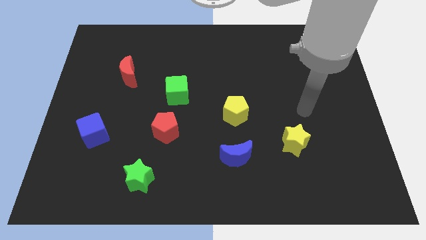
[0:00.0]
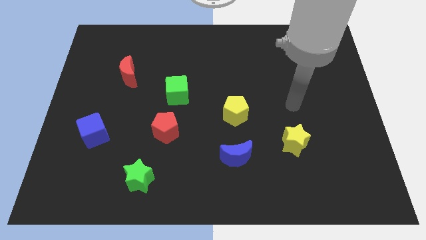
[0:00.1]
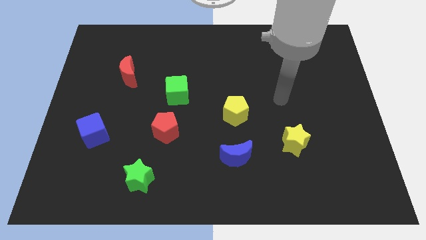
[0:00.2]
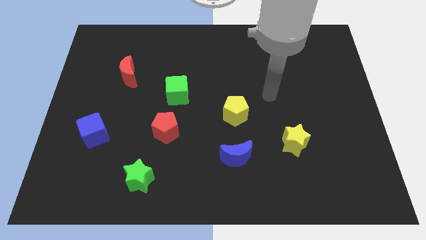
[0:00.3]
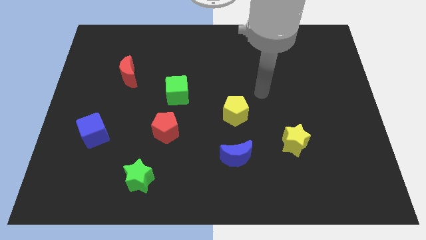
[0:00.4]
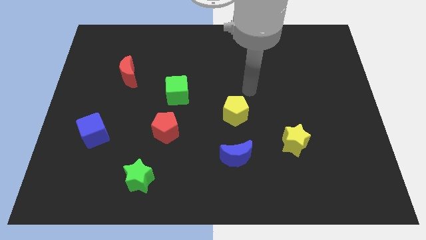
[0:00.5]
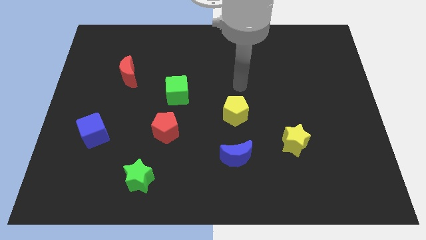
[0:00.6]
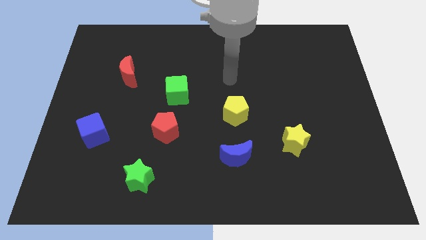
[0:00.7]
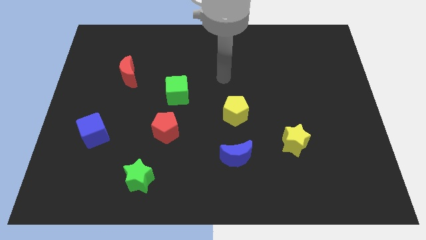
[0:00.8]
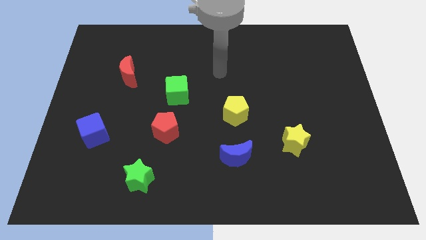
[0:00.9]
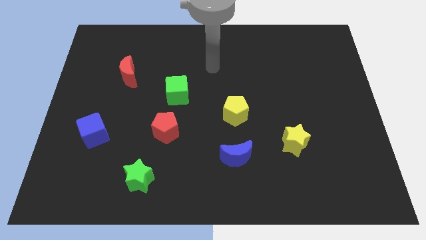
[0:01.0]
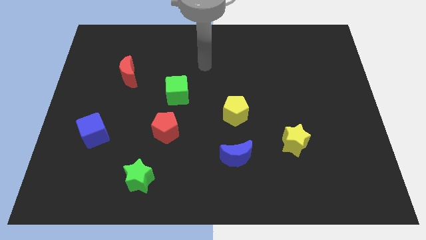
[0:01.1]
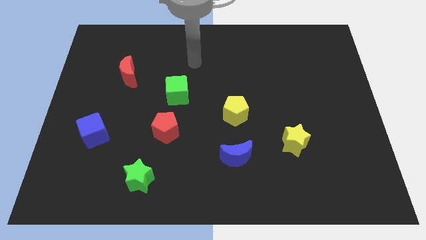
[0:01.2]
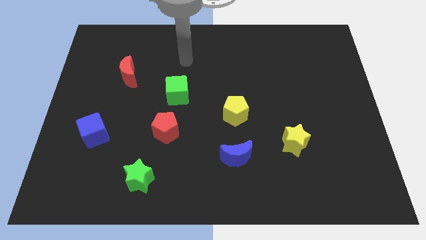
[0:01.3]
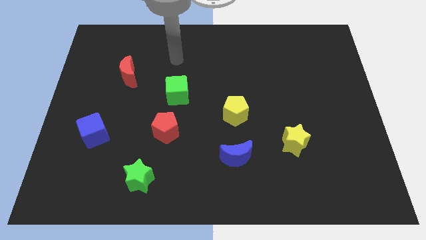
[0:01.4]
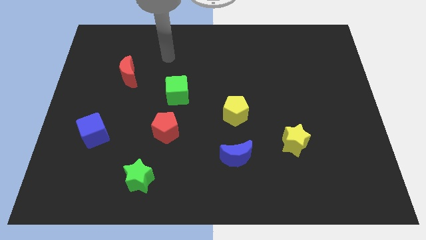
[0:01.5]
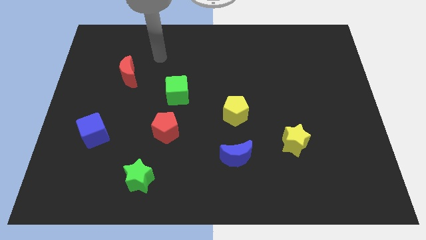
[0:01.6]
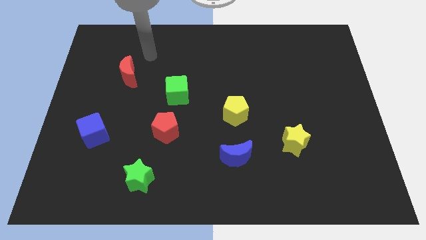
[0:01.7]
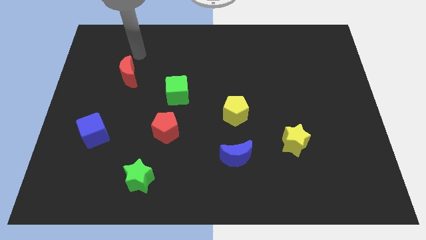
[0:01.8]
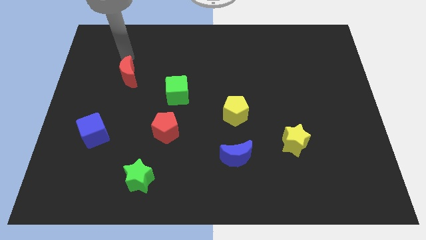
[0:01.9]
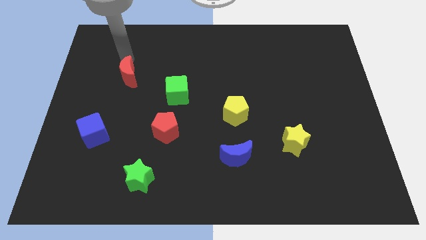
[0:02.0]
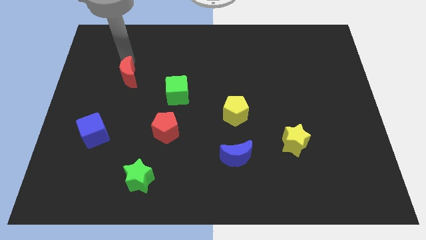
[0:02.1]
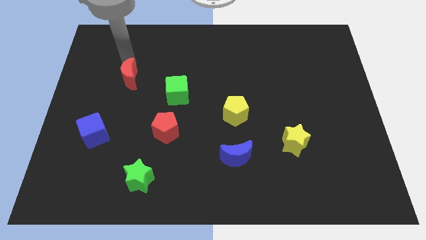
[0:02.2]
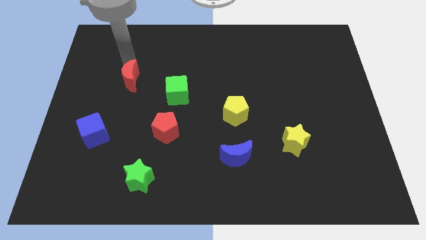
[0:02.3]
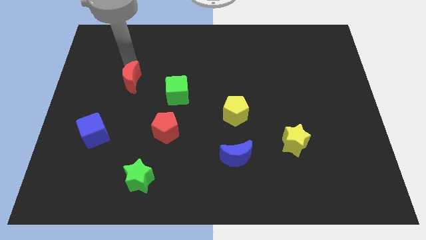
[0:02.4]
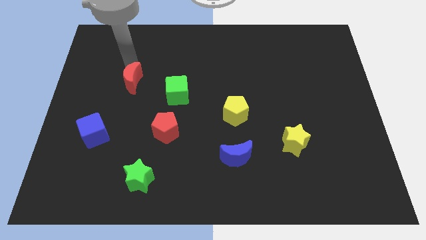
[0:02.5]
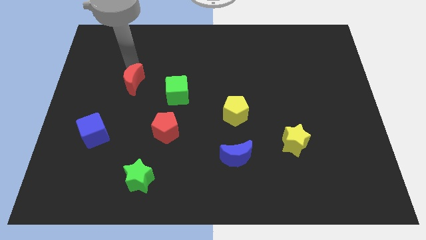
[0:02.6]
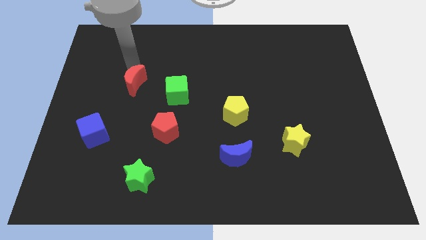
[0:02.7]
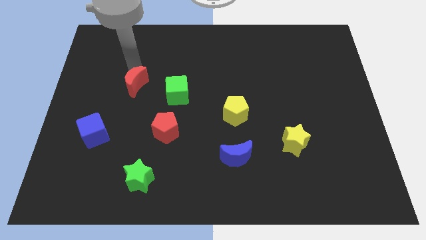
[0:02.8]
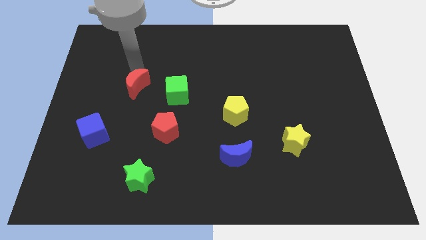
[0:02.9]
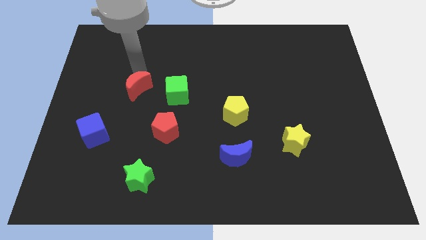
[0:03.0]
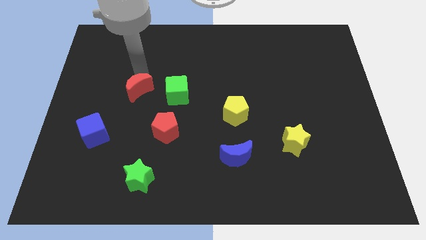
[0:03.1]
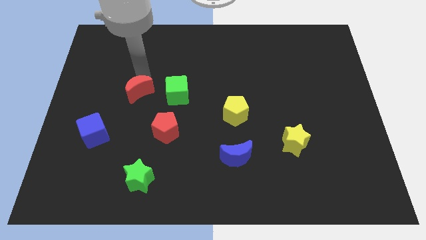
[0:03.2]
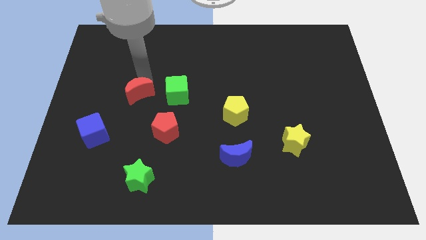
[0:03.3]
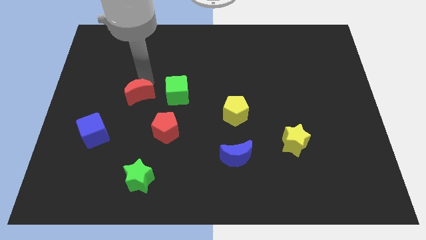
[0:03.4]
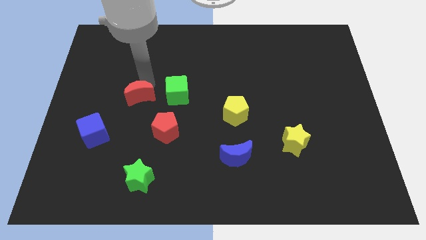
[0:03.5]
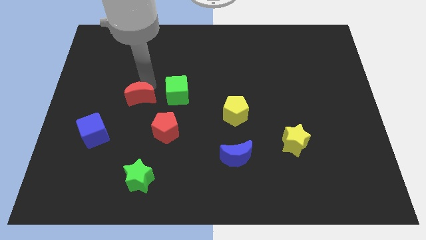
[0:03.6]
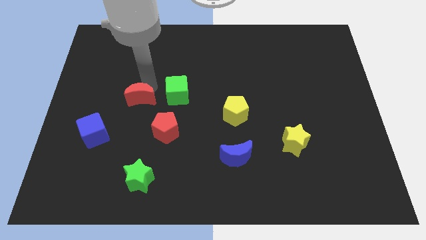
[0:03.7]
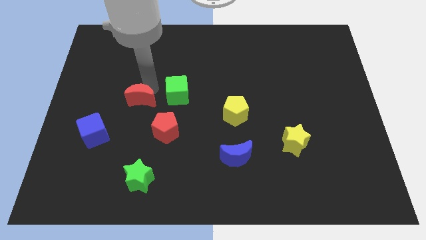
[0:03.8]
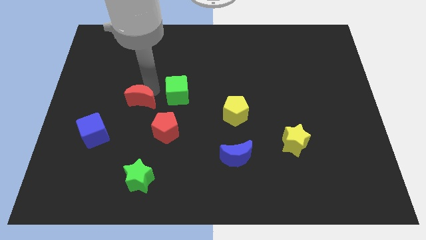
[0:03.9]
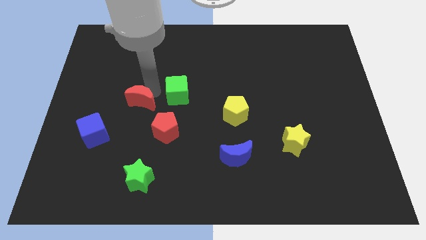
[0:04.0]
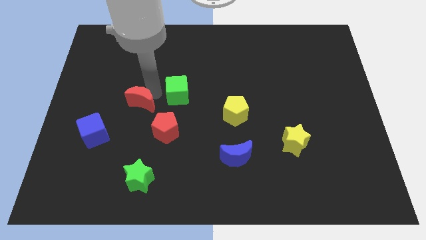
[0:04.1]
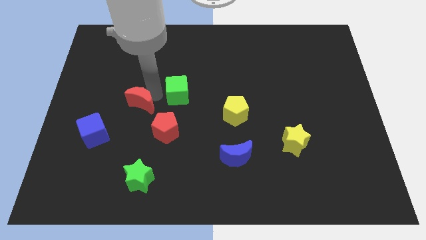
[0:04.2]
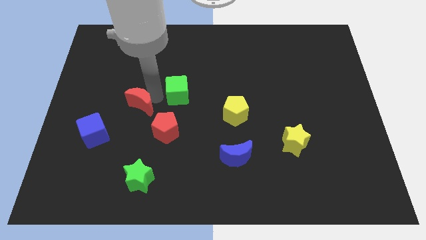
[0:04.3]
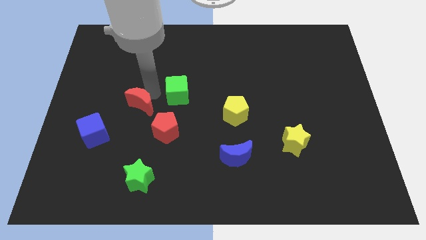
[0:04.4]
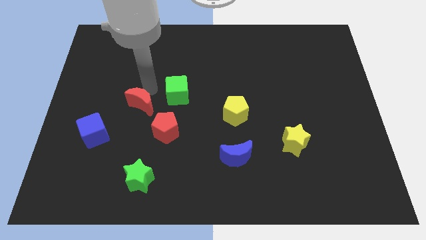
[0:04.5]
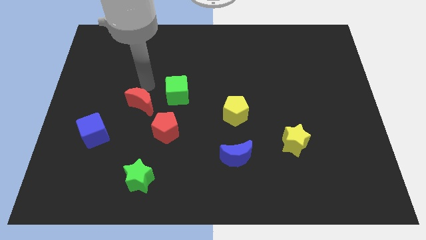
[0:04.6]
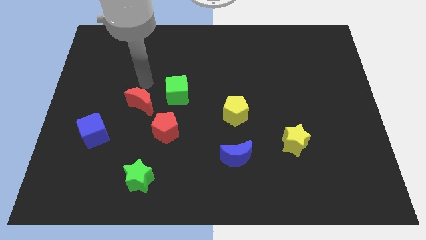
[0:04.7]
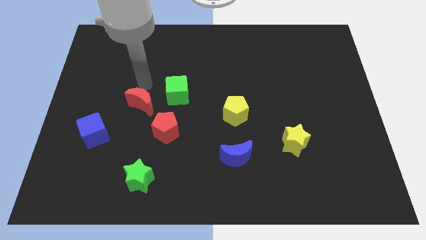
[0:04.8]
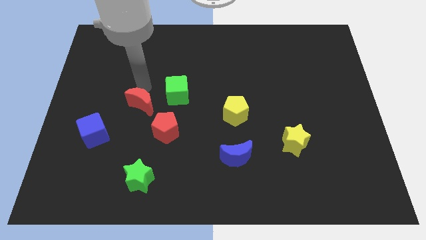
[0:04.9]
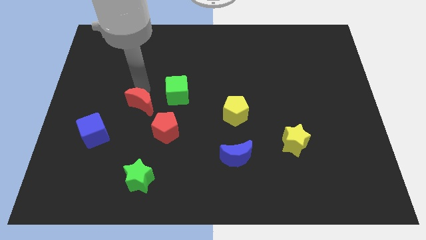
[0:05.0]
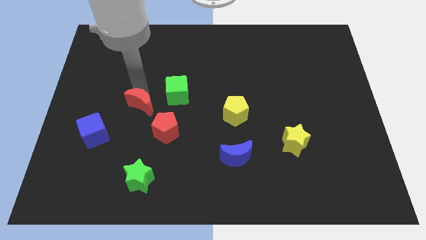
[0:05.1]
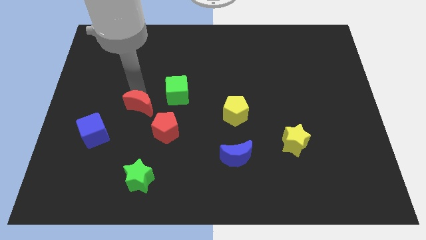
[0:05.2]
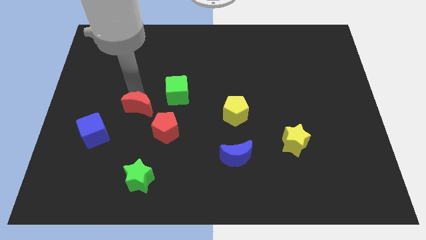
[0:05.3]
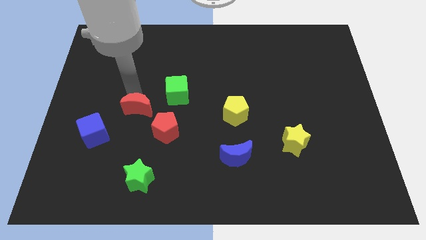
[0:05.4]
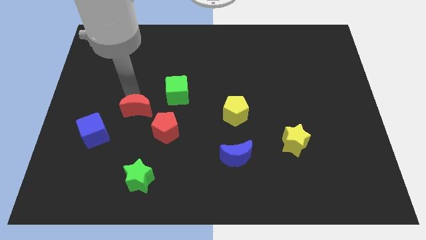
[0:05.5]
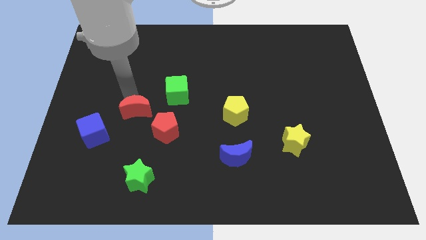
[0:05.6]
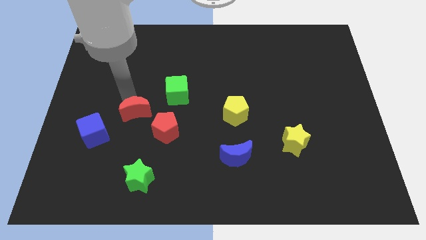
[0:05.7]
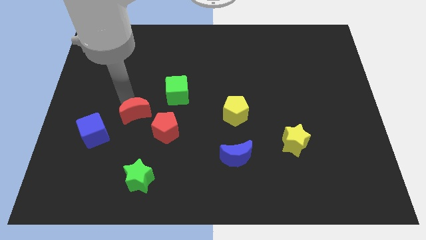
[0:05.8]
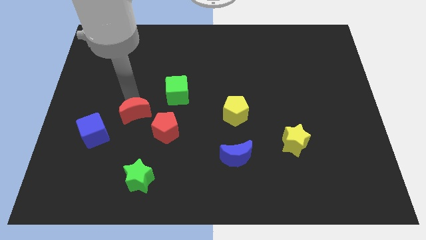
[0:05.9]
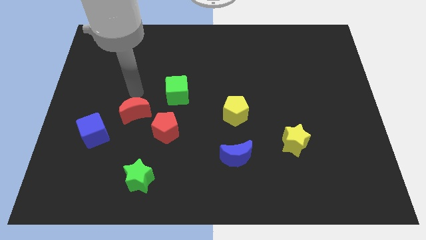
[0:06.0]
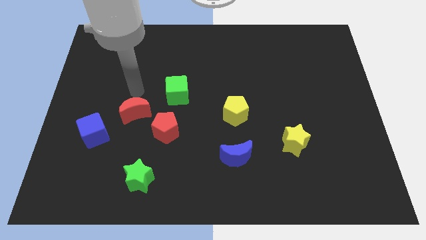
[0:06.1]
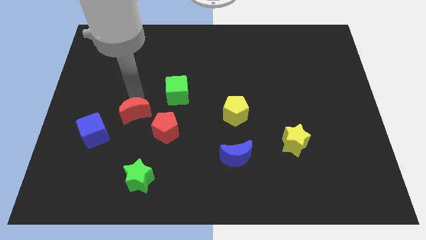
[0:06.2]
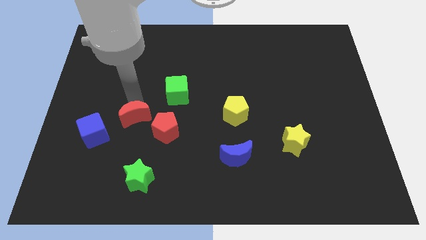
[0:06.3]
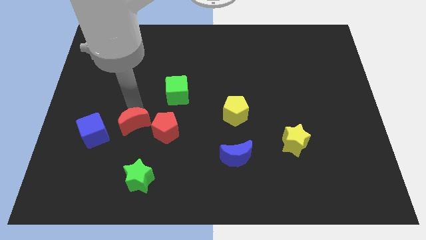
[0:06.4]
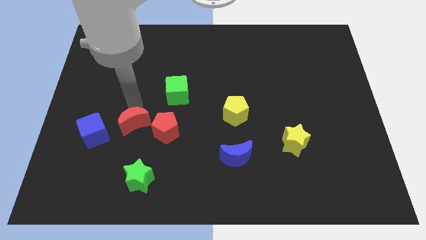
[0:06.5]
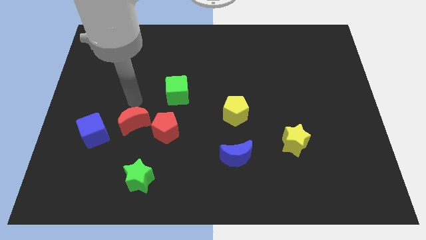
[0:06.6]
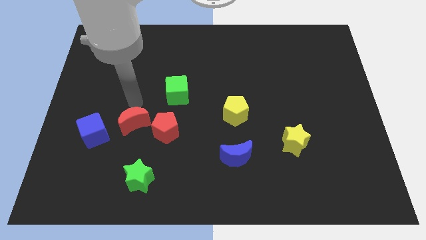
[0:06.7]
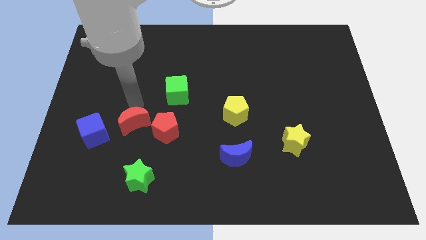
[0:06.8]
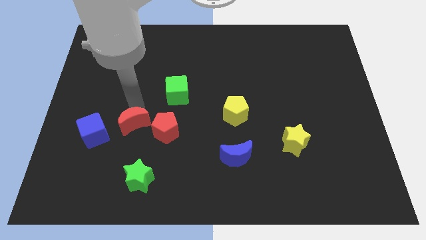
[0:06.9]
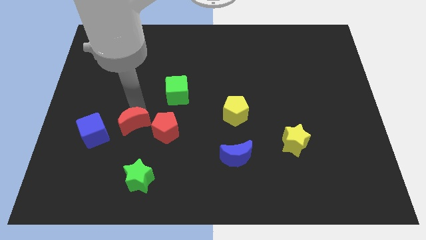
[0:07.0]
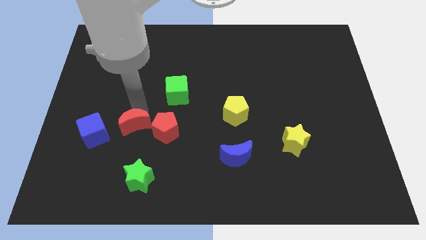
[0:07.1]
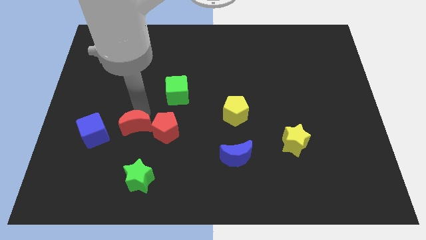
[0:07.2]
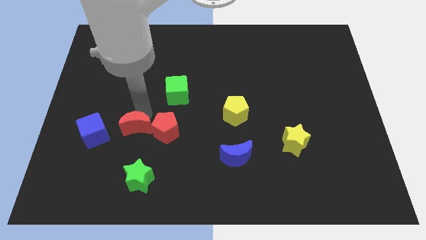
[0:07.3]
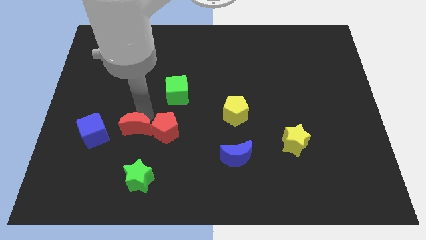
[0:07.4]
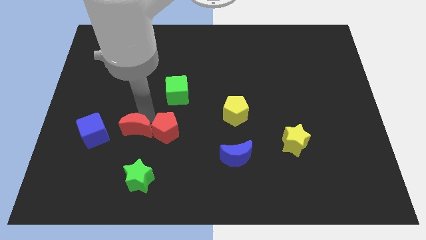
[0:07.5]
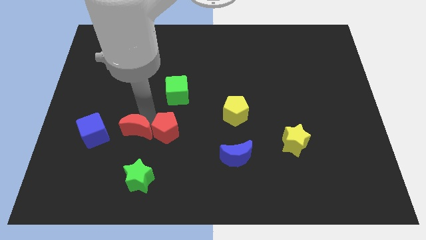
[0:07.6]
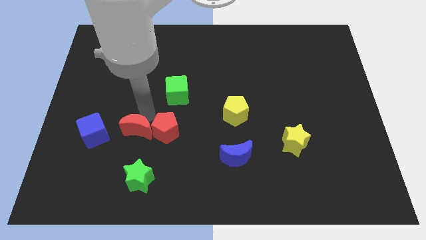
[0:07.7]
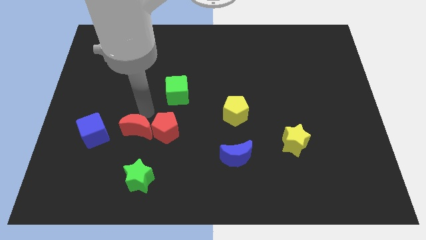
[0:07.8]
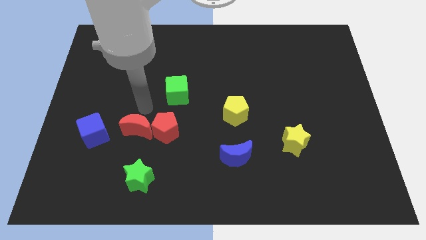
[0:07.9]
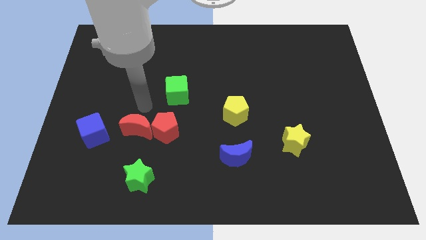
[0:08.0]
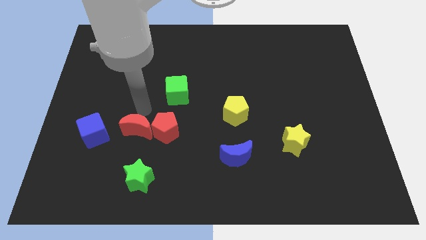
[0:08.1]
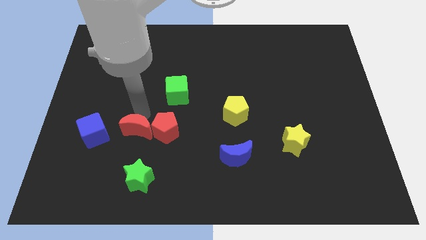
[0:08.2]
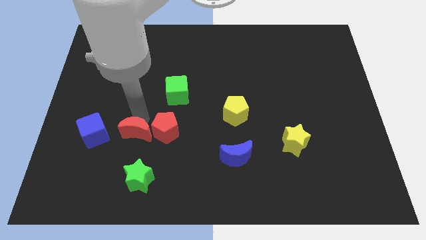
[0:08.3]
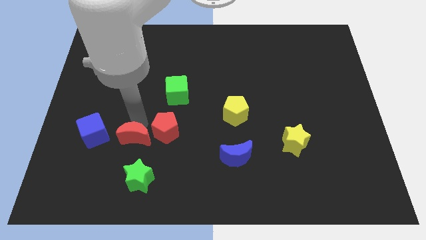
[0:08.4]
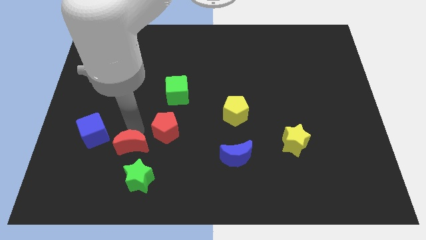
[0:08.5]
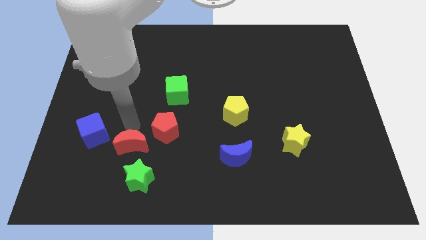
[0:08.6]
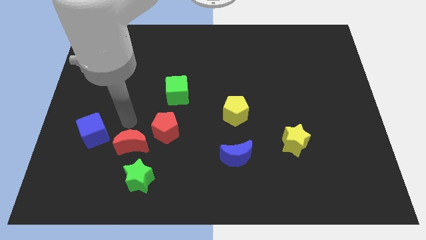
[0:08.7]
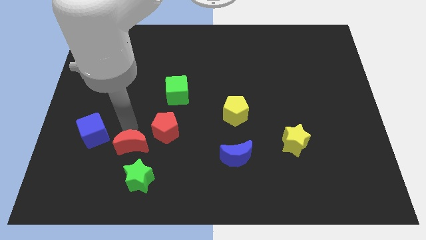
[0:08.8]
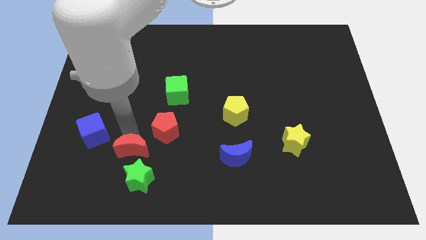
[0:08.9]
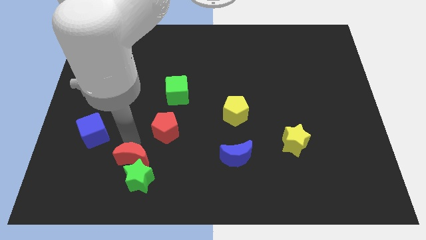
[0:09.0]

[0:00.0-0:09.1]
push the red moon close to the green star
